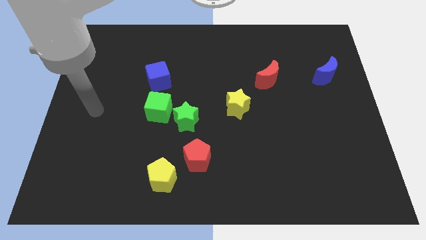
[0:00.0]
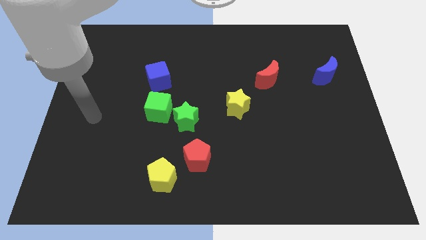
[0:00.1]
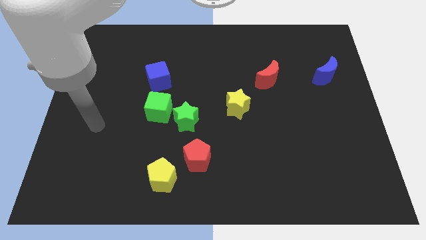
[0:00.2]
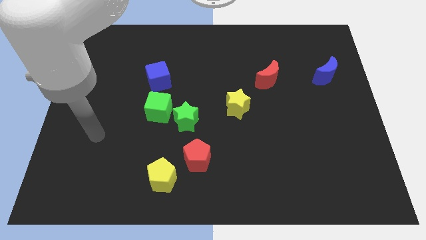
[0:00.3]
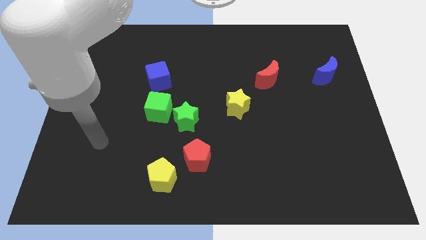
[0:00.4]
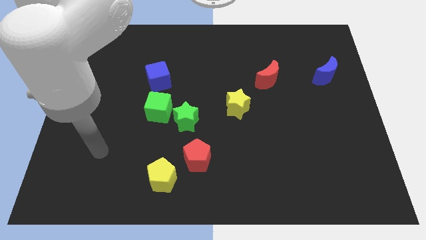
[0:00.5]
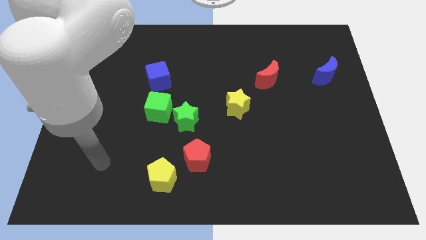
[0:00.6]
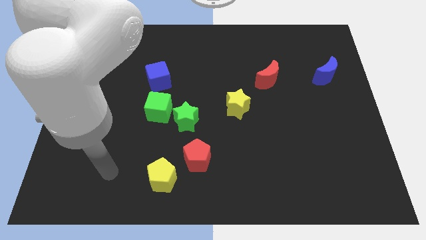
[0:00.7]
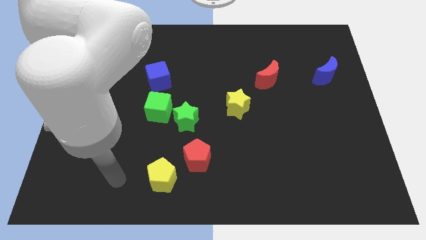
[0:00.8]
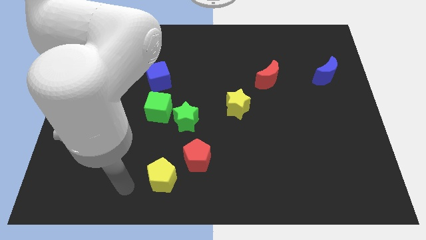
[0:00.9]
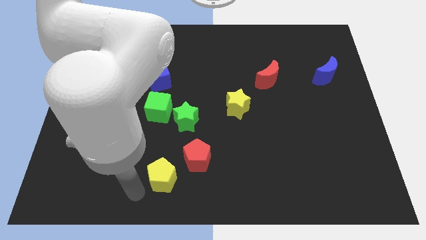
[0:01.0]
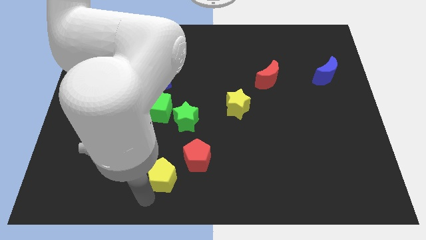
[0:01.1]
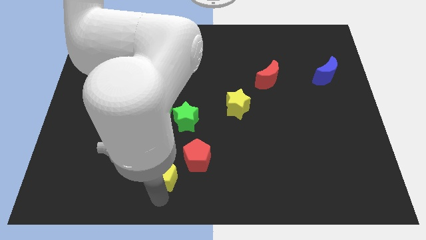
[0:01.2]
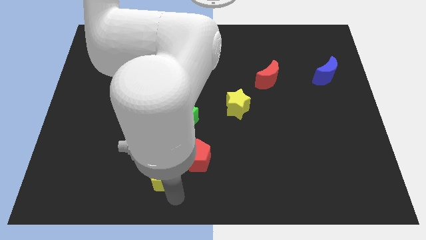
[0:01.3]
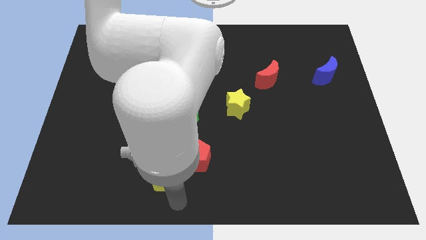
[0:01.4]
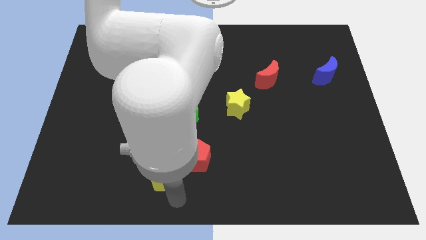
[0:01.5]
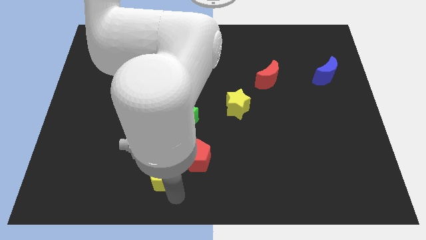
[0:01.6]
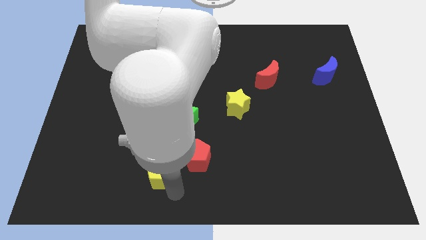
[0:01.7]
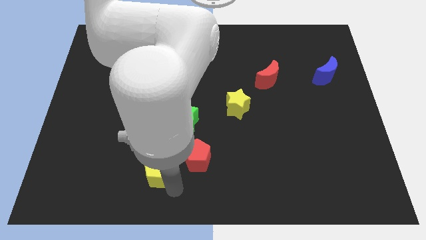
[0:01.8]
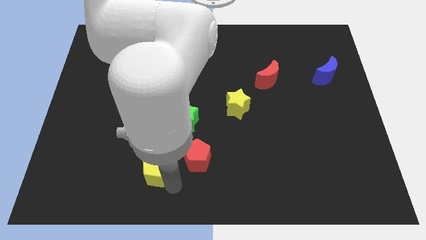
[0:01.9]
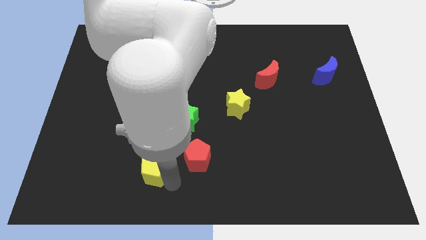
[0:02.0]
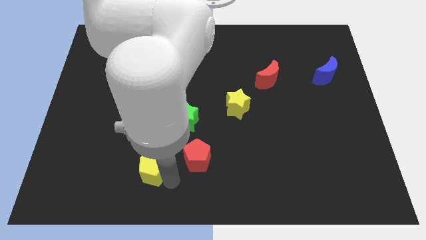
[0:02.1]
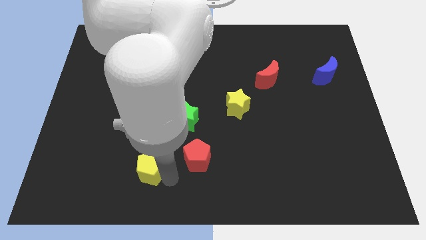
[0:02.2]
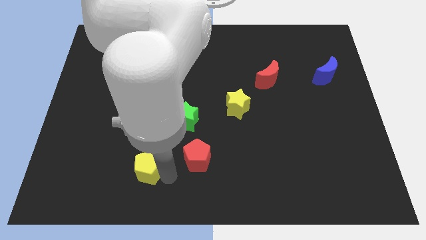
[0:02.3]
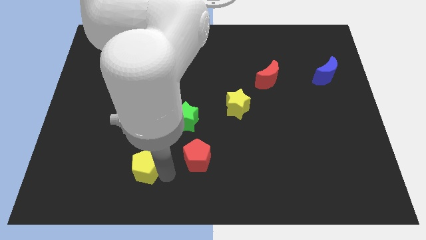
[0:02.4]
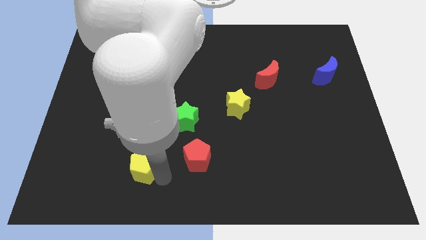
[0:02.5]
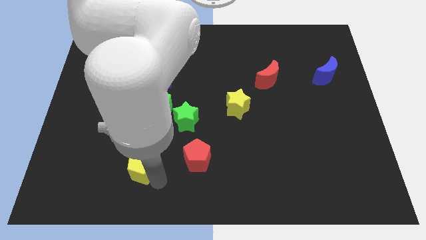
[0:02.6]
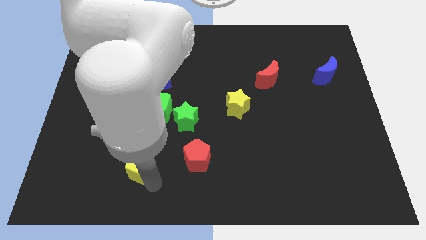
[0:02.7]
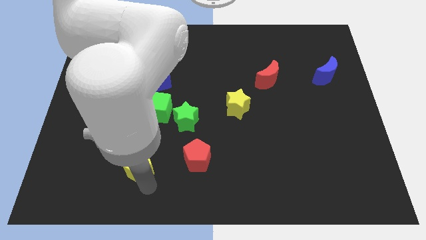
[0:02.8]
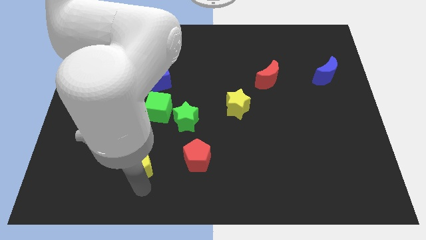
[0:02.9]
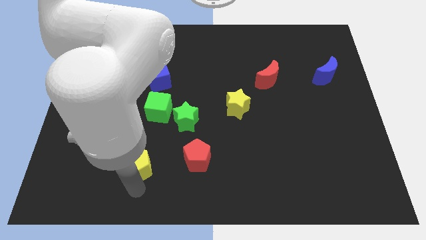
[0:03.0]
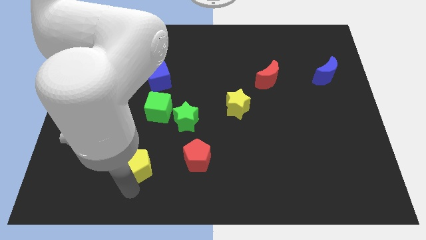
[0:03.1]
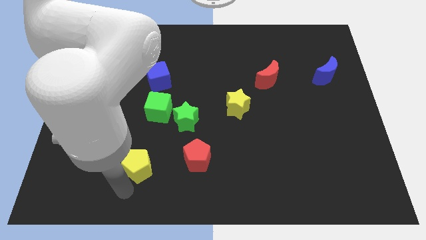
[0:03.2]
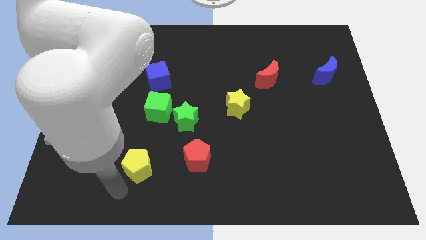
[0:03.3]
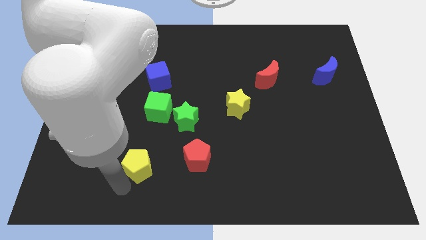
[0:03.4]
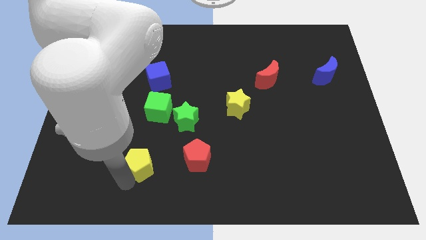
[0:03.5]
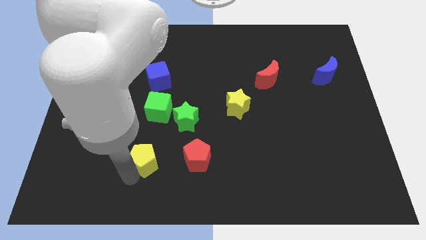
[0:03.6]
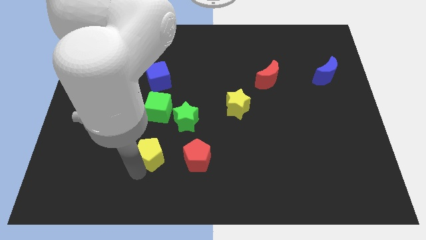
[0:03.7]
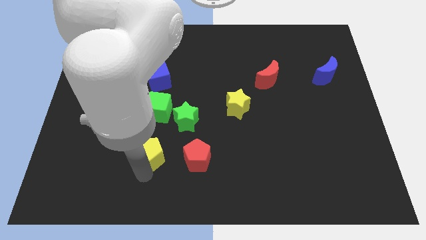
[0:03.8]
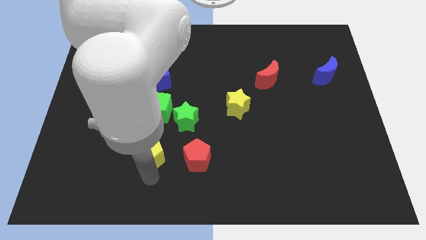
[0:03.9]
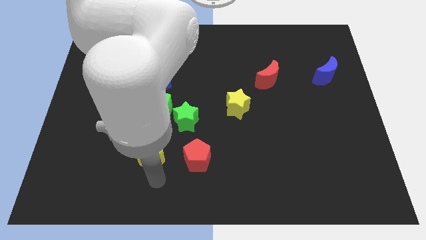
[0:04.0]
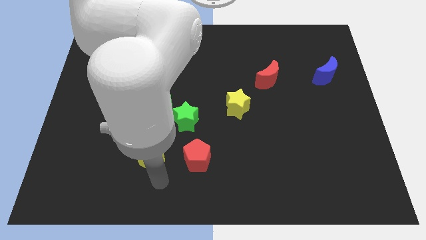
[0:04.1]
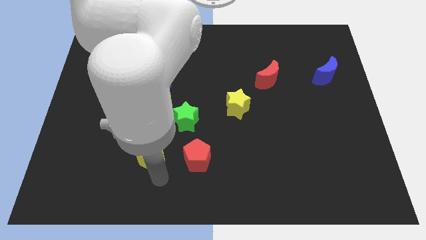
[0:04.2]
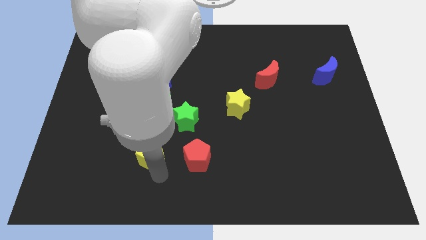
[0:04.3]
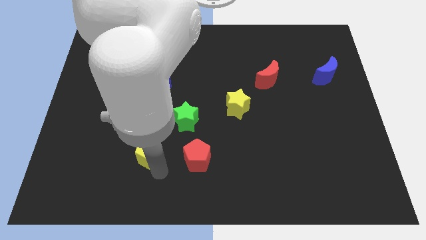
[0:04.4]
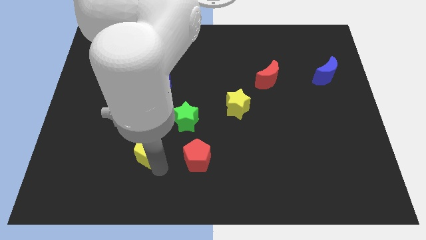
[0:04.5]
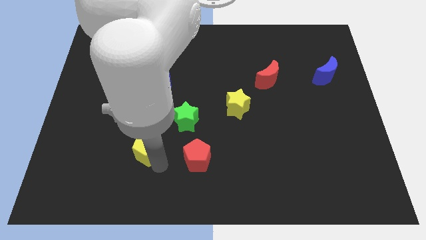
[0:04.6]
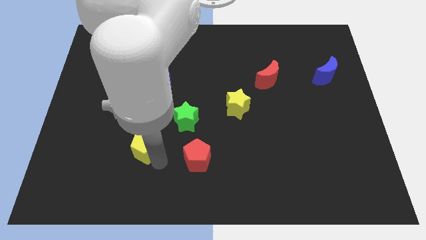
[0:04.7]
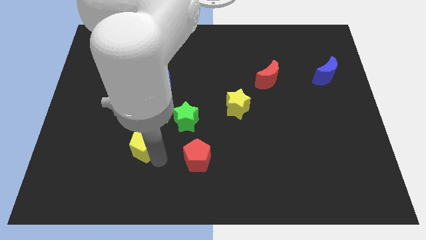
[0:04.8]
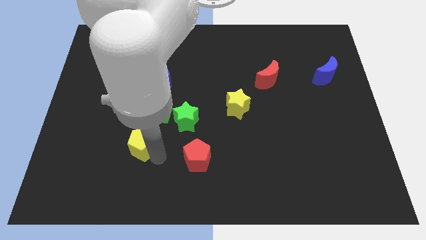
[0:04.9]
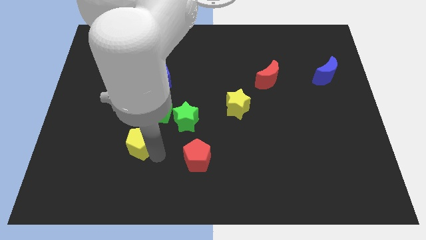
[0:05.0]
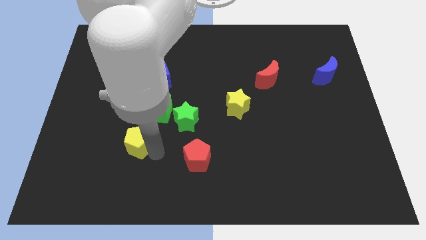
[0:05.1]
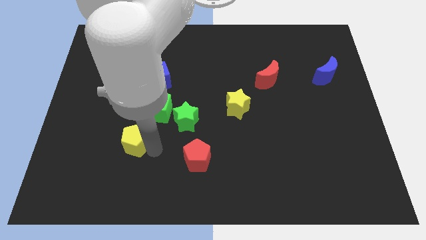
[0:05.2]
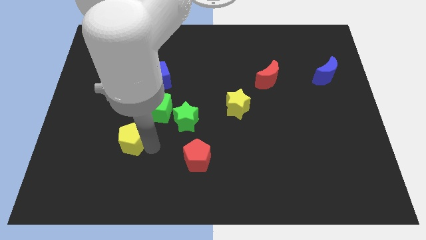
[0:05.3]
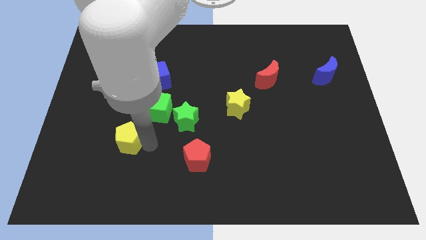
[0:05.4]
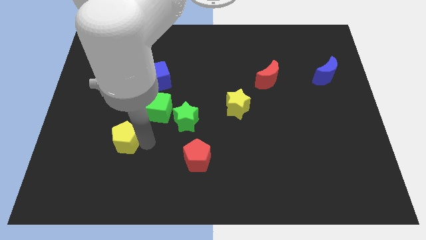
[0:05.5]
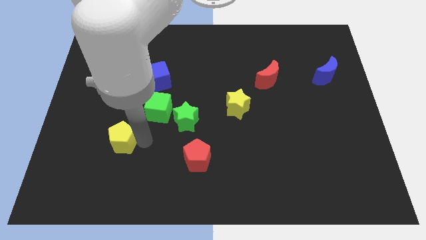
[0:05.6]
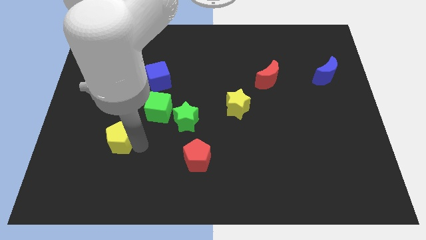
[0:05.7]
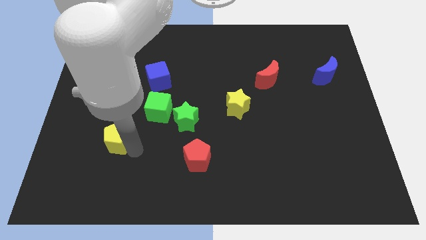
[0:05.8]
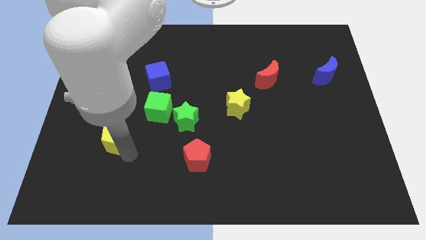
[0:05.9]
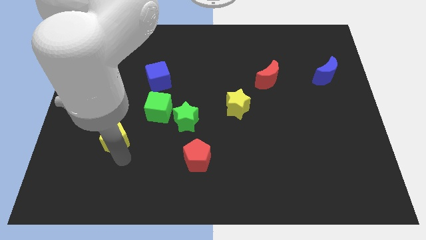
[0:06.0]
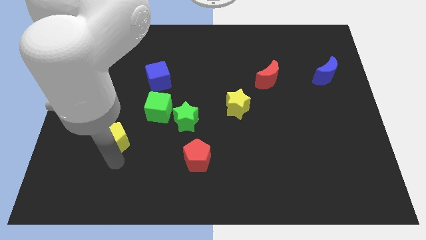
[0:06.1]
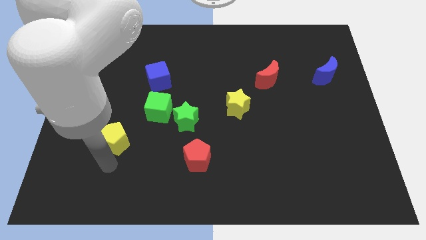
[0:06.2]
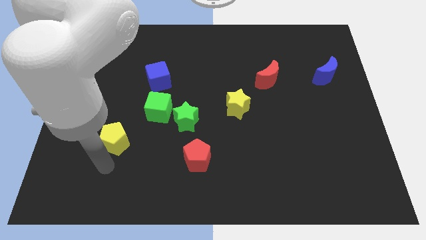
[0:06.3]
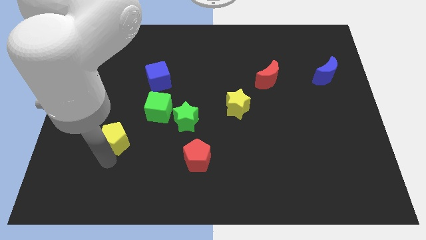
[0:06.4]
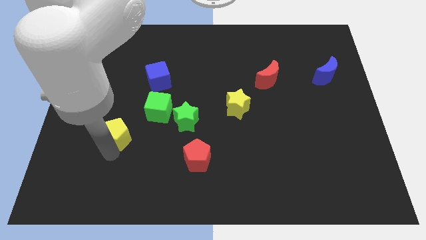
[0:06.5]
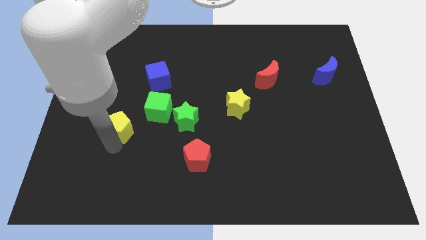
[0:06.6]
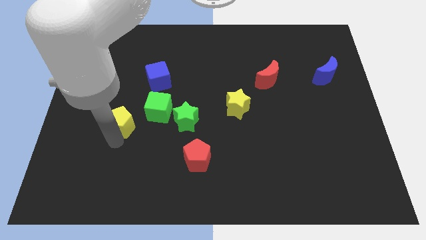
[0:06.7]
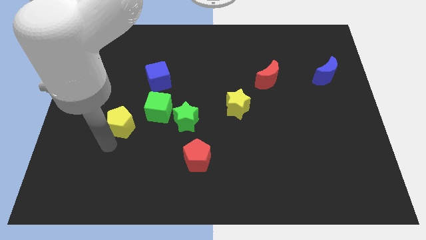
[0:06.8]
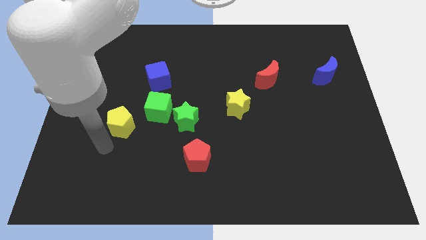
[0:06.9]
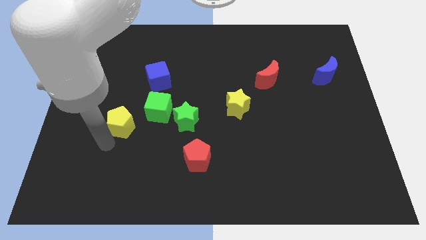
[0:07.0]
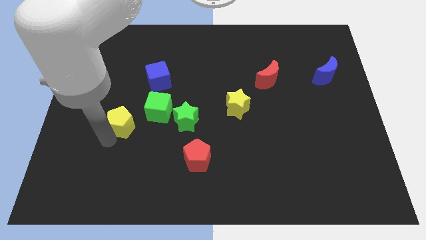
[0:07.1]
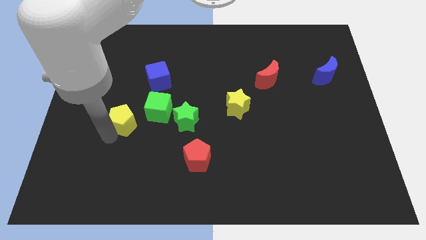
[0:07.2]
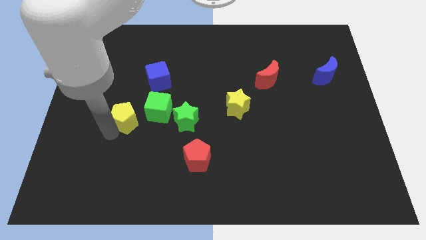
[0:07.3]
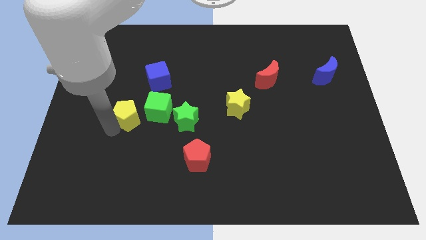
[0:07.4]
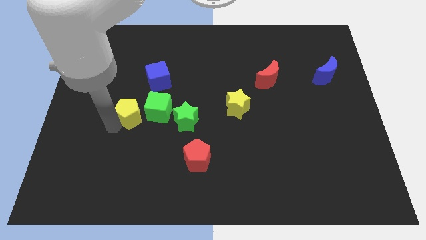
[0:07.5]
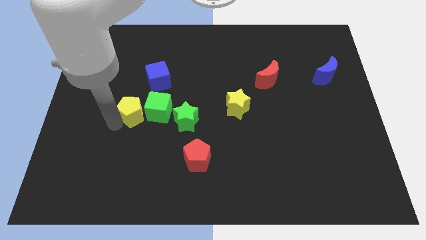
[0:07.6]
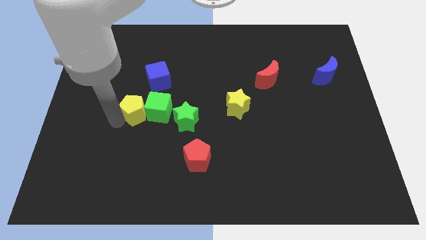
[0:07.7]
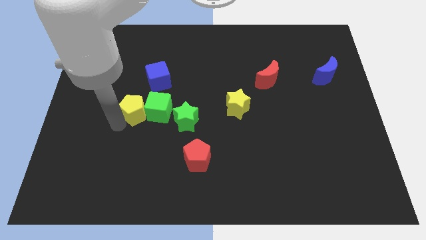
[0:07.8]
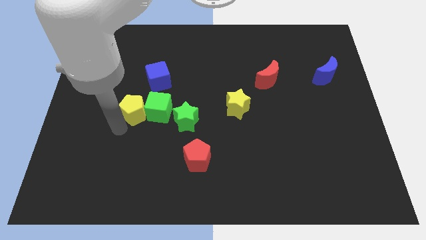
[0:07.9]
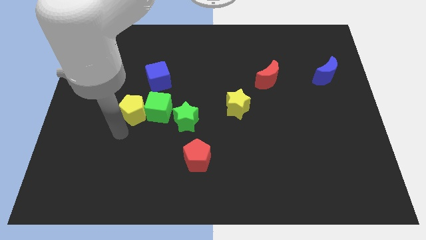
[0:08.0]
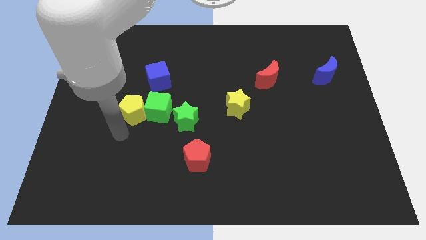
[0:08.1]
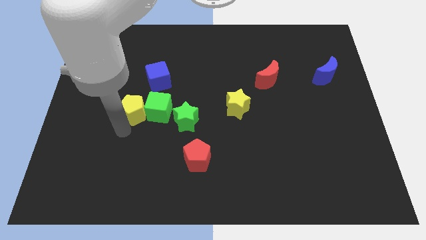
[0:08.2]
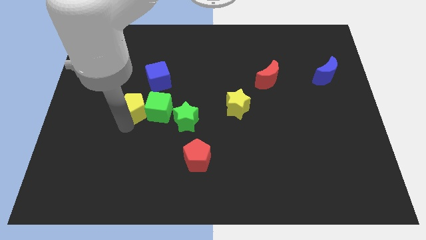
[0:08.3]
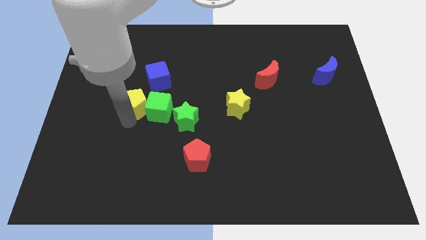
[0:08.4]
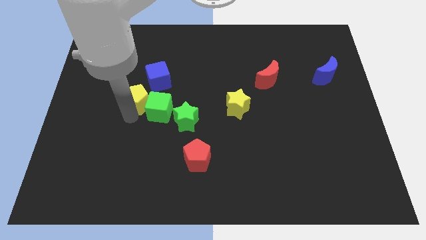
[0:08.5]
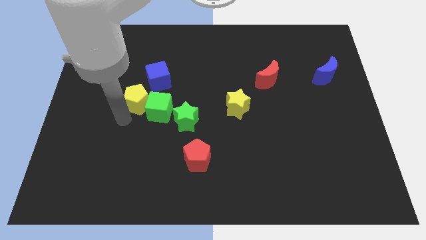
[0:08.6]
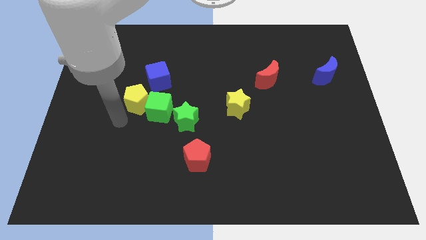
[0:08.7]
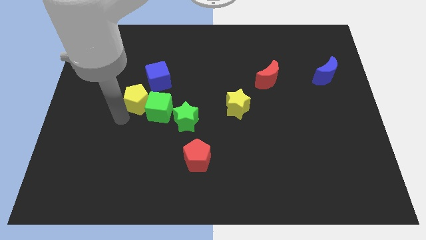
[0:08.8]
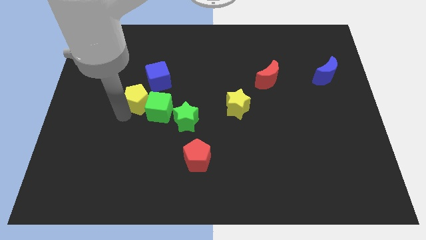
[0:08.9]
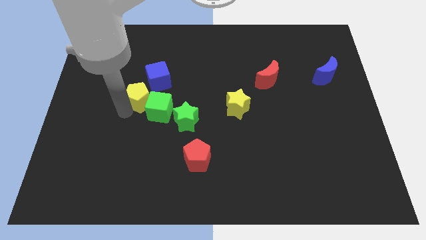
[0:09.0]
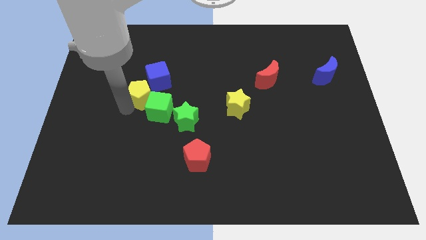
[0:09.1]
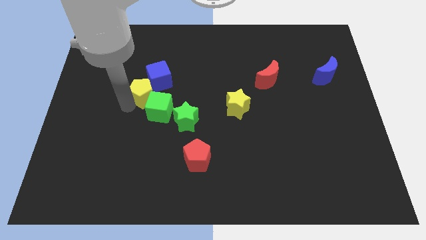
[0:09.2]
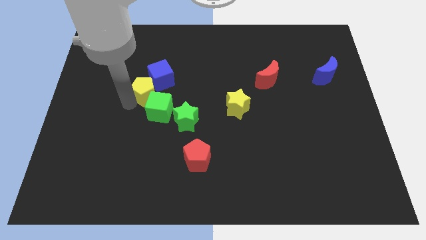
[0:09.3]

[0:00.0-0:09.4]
slide the yellow pentagon close to the blue cube
